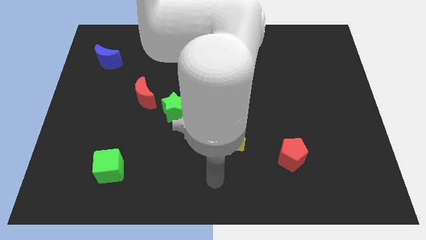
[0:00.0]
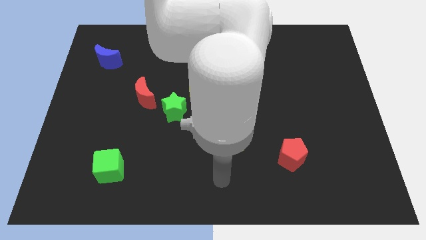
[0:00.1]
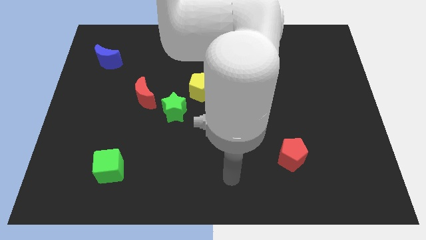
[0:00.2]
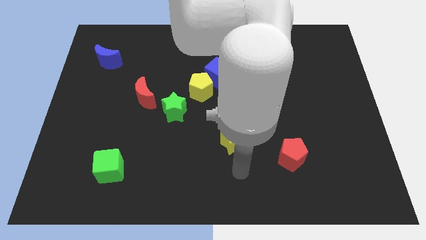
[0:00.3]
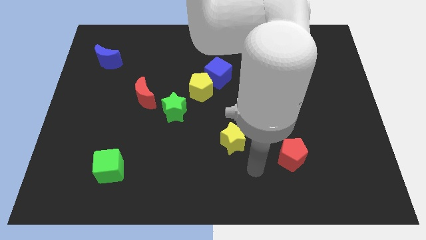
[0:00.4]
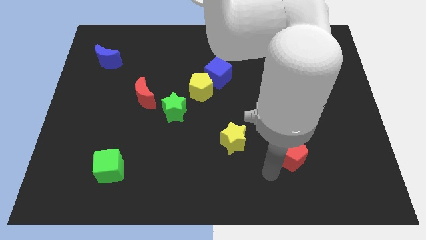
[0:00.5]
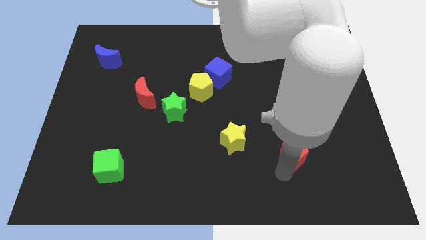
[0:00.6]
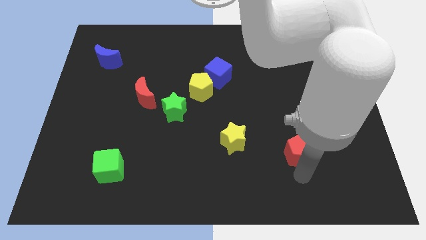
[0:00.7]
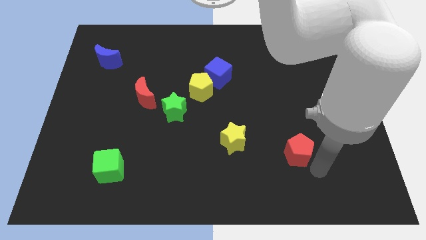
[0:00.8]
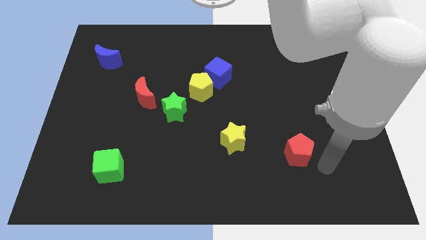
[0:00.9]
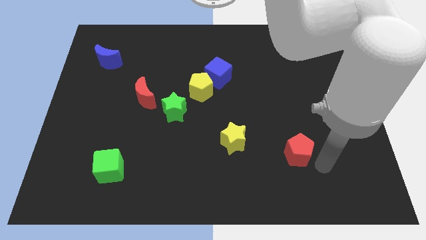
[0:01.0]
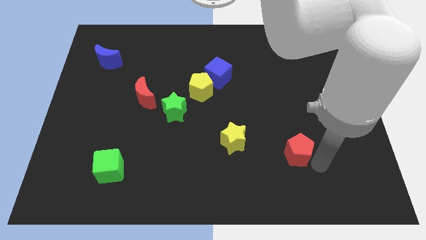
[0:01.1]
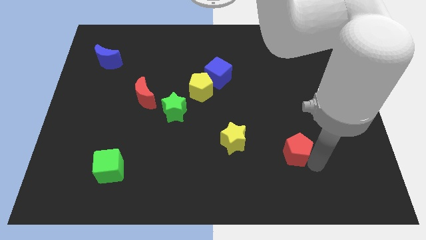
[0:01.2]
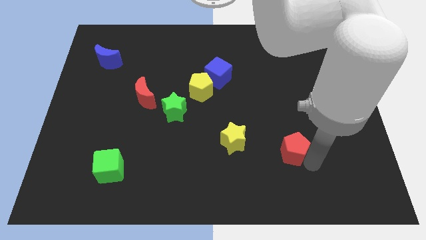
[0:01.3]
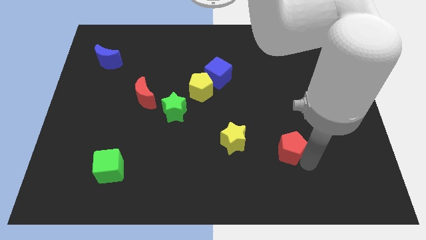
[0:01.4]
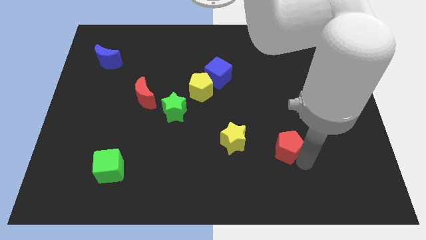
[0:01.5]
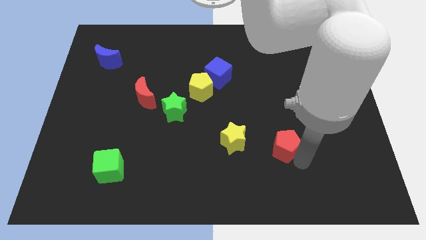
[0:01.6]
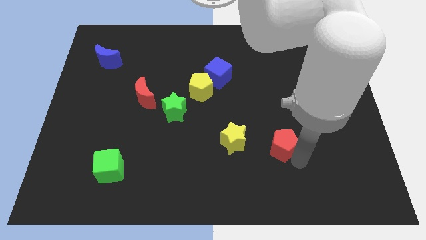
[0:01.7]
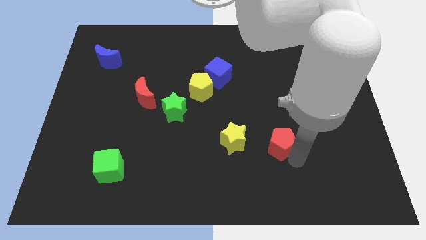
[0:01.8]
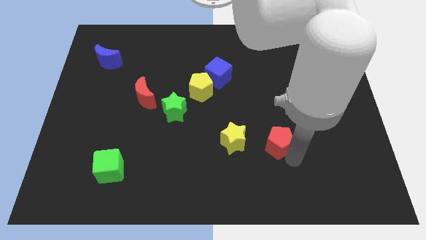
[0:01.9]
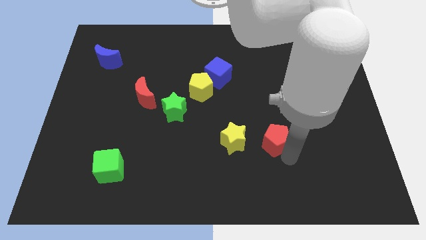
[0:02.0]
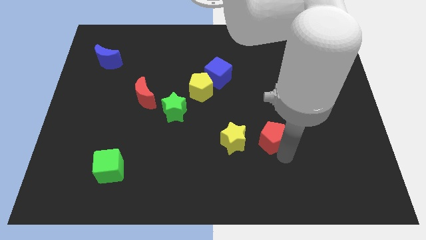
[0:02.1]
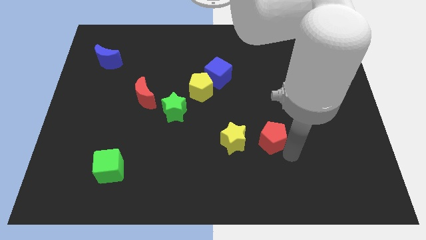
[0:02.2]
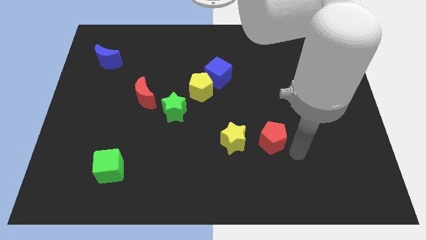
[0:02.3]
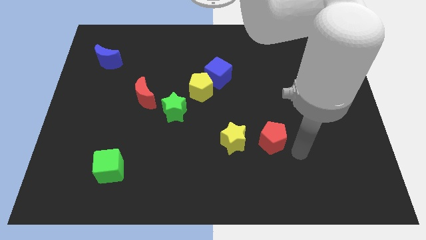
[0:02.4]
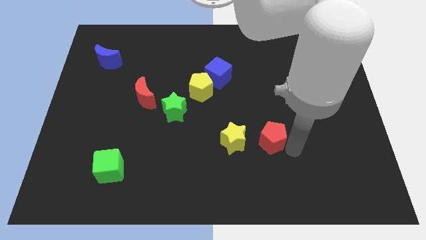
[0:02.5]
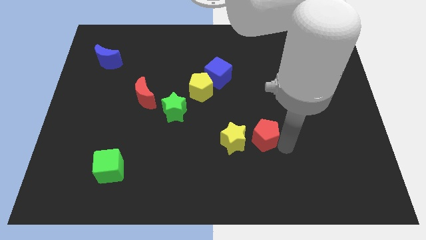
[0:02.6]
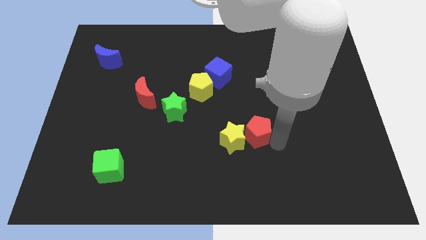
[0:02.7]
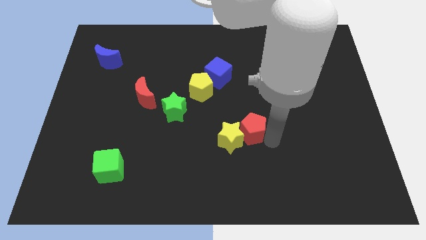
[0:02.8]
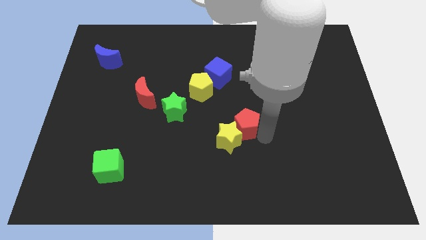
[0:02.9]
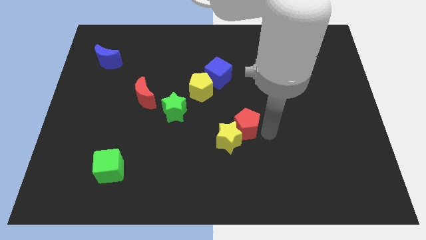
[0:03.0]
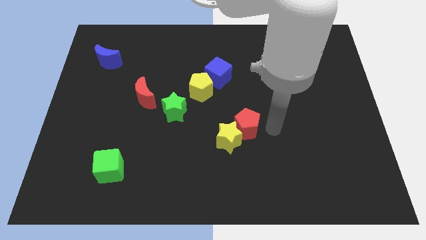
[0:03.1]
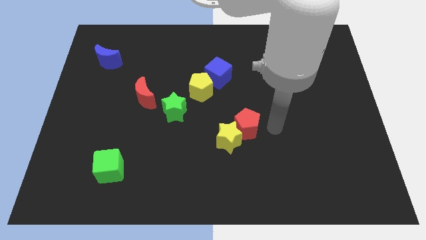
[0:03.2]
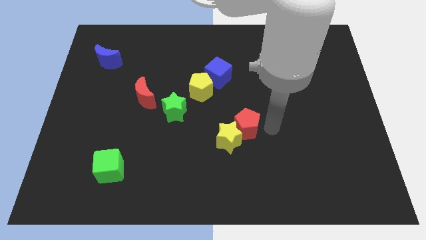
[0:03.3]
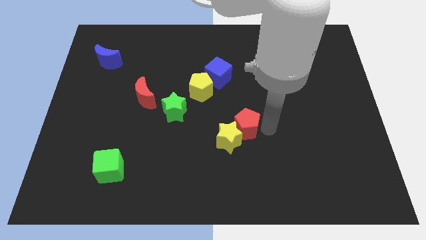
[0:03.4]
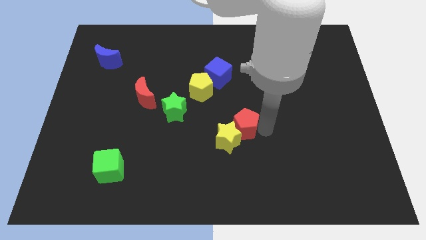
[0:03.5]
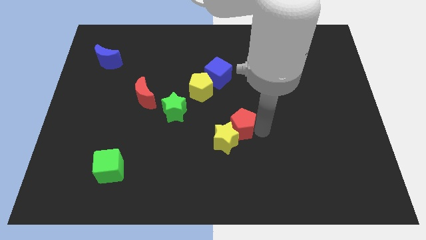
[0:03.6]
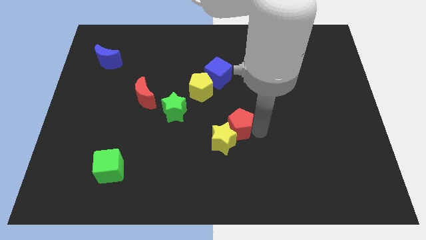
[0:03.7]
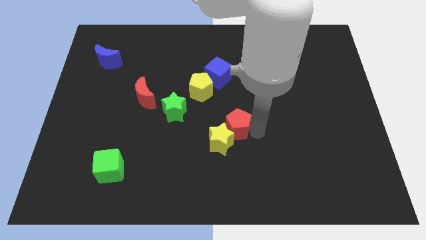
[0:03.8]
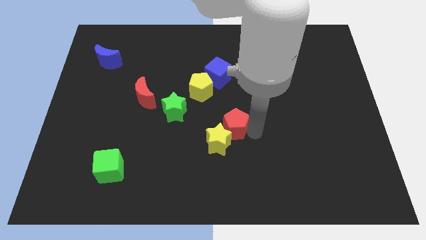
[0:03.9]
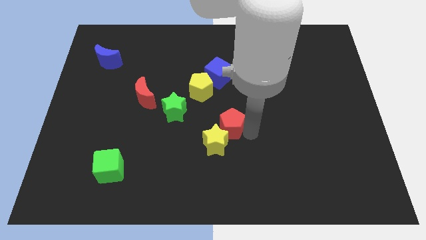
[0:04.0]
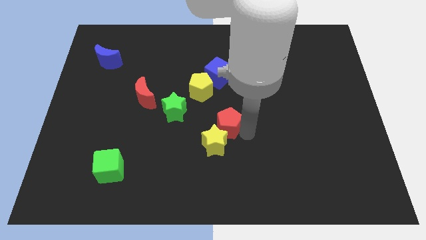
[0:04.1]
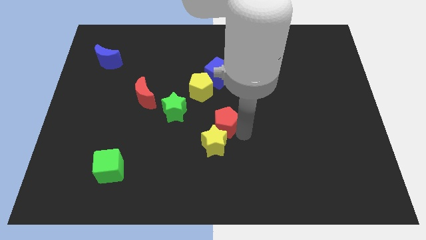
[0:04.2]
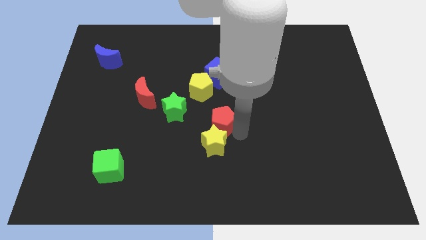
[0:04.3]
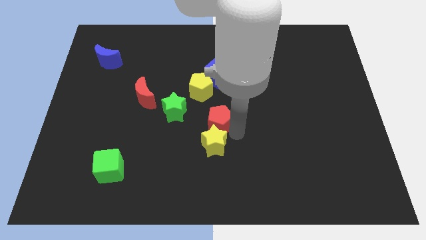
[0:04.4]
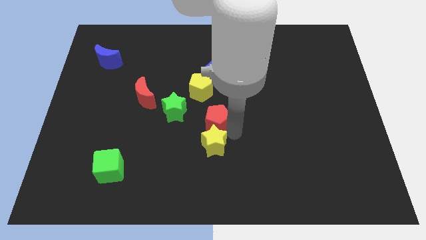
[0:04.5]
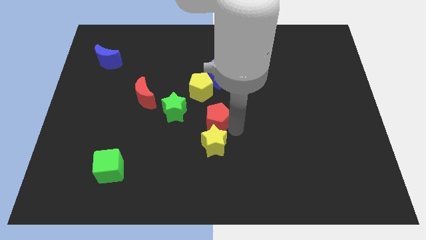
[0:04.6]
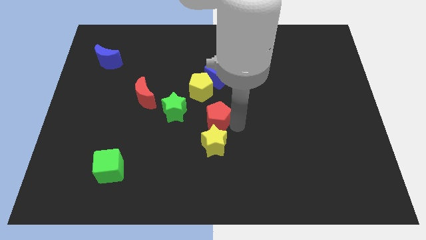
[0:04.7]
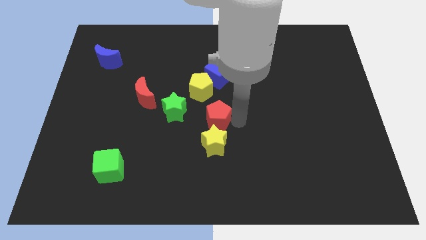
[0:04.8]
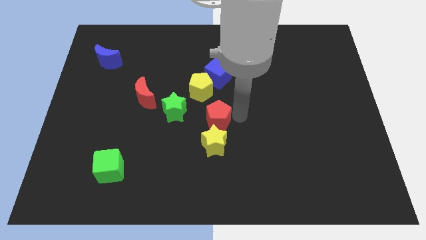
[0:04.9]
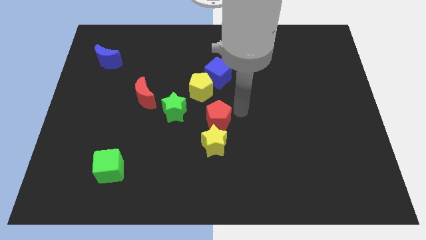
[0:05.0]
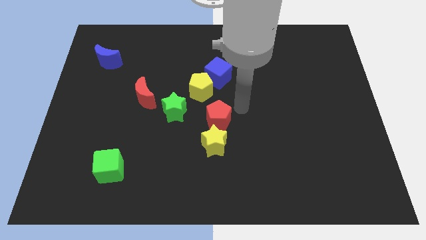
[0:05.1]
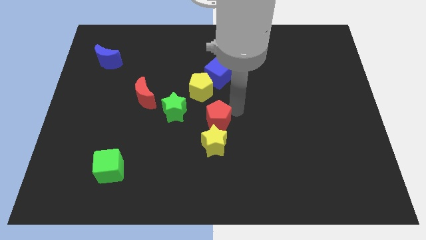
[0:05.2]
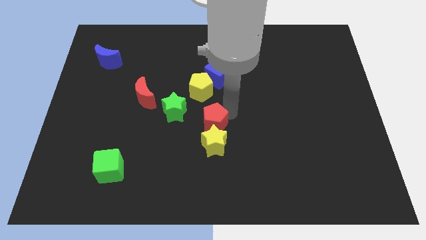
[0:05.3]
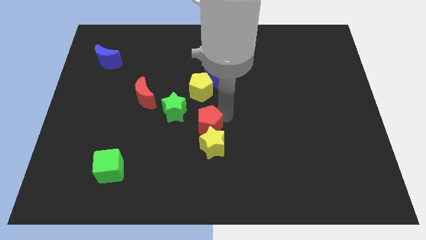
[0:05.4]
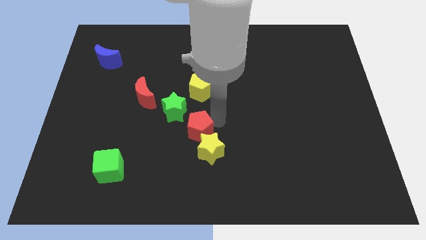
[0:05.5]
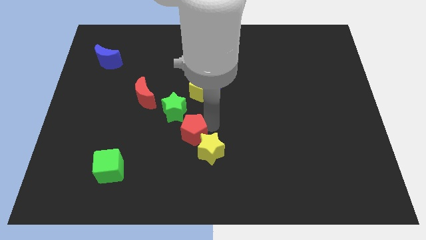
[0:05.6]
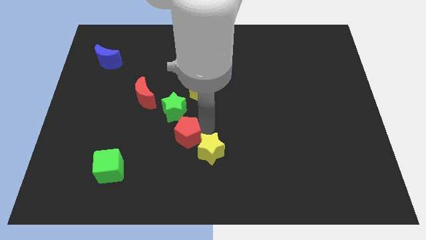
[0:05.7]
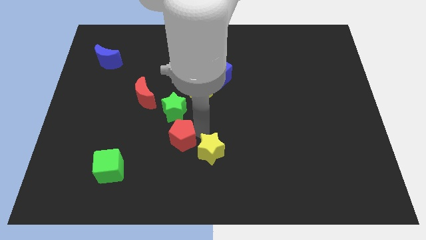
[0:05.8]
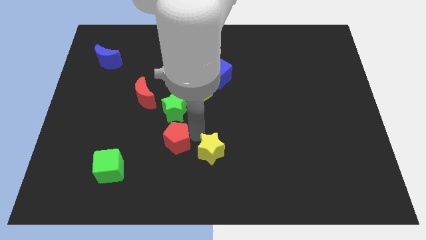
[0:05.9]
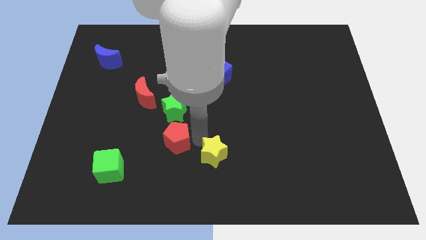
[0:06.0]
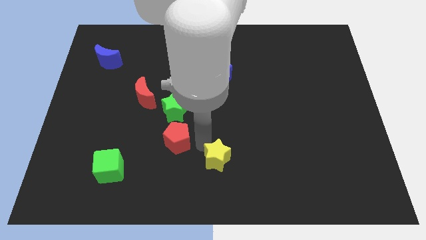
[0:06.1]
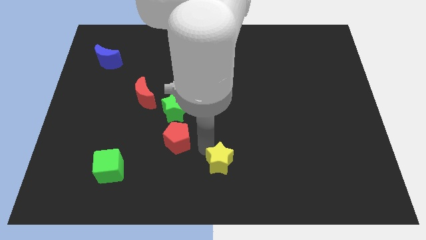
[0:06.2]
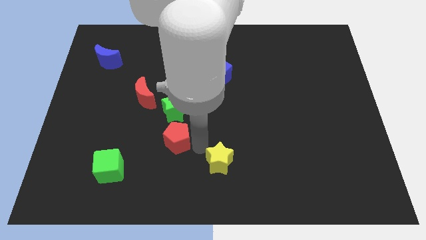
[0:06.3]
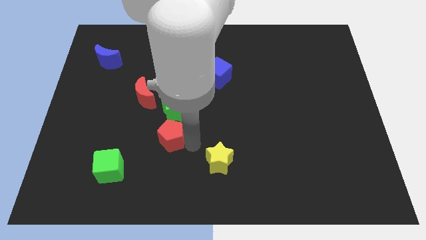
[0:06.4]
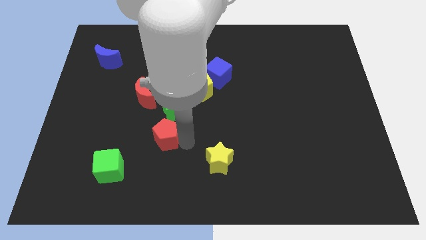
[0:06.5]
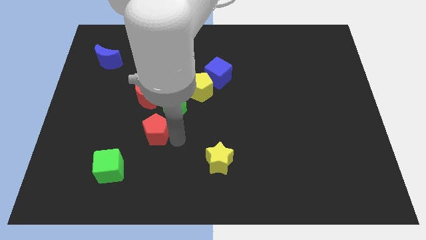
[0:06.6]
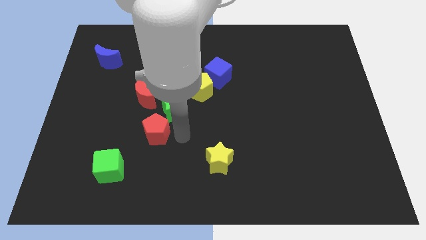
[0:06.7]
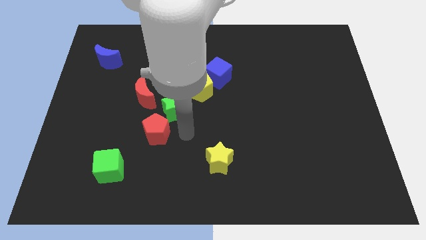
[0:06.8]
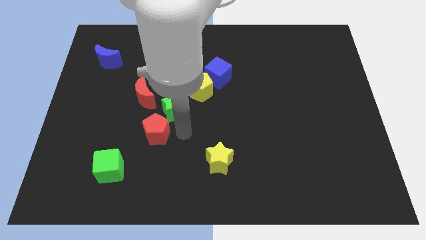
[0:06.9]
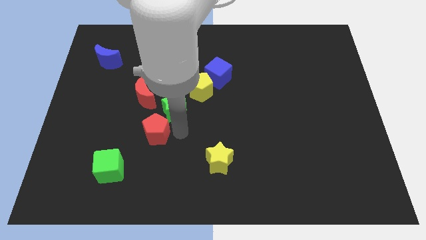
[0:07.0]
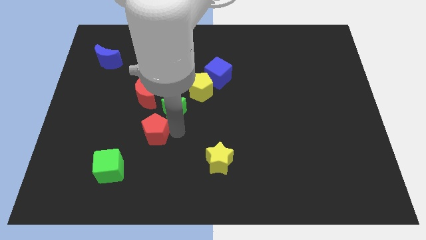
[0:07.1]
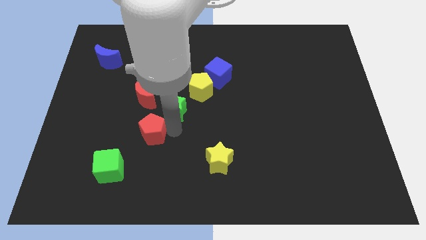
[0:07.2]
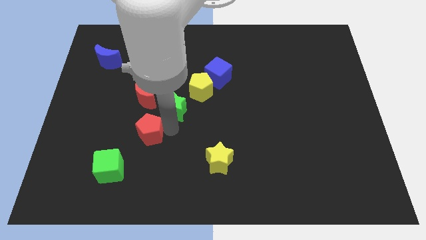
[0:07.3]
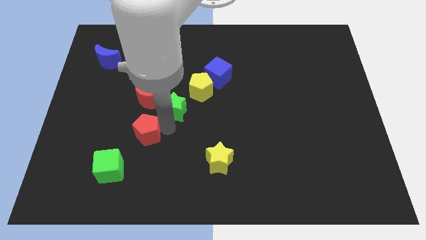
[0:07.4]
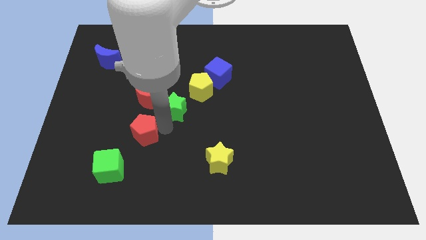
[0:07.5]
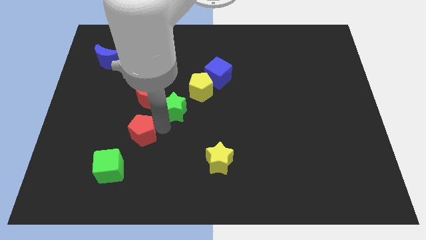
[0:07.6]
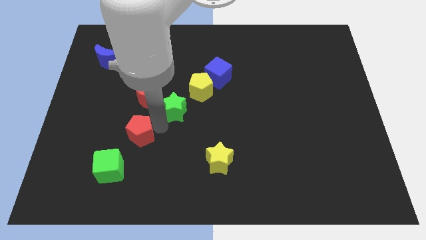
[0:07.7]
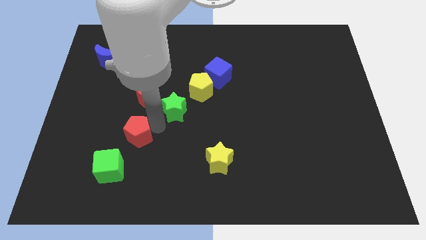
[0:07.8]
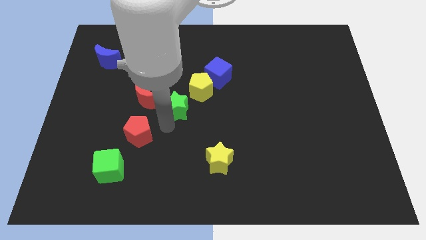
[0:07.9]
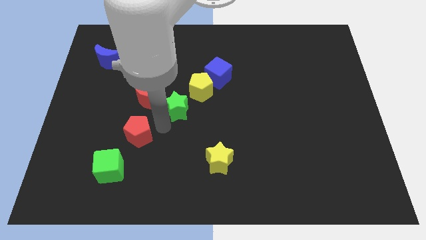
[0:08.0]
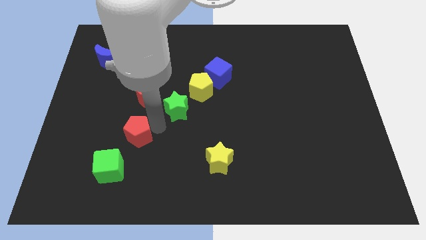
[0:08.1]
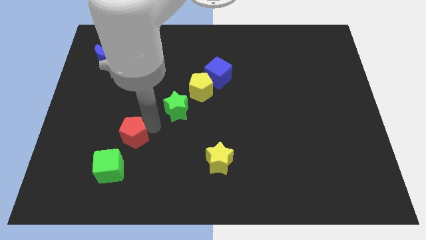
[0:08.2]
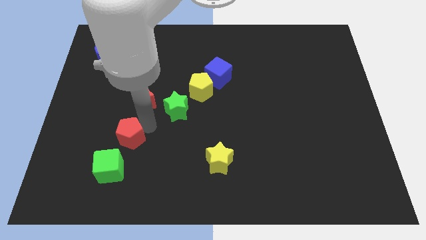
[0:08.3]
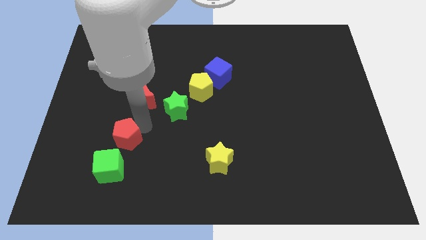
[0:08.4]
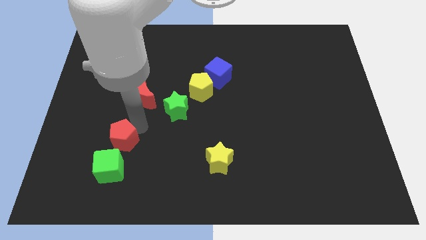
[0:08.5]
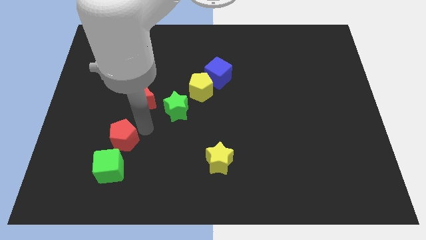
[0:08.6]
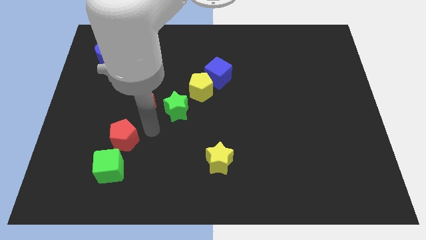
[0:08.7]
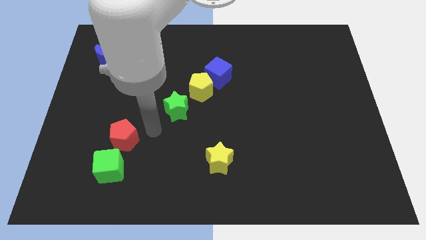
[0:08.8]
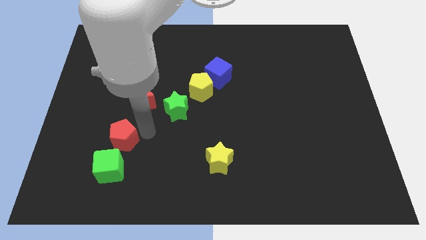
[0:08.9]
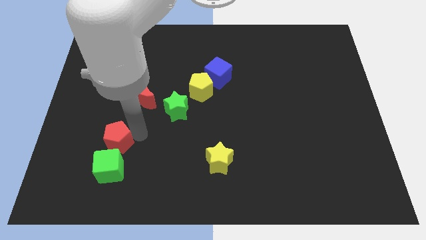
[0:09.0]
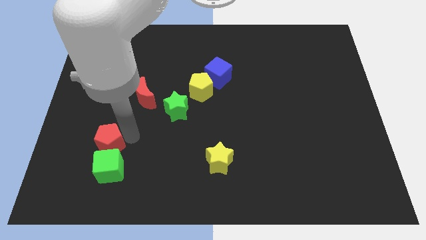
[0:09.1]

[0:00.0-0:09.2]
push the red pentagon diagonally up and to the left of the green cube
